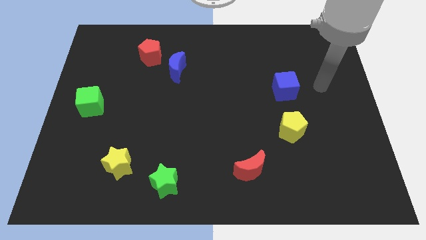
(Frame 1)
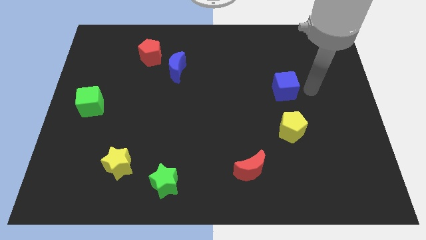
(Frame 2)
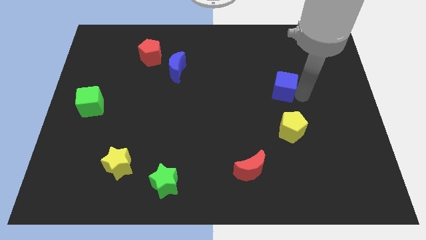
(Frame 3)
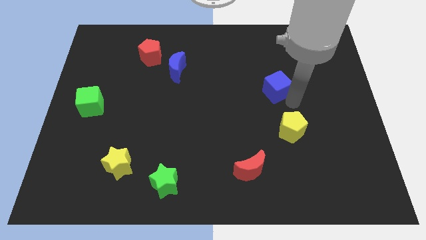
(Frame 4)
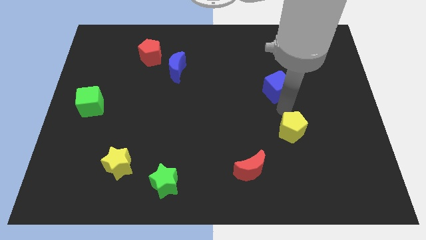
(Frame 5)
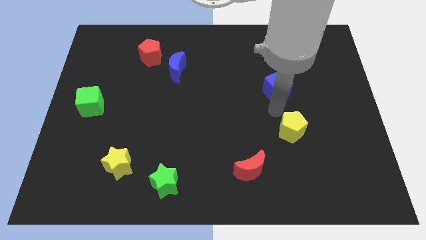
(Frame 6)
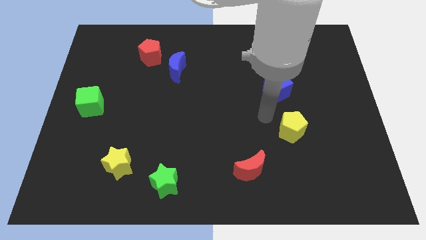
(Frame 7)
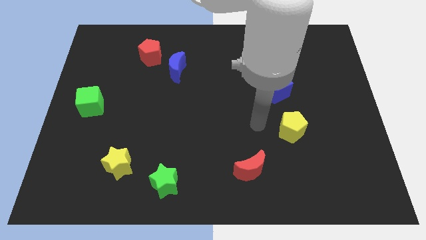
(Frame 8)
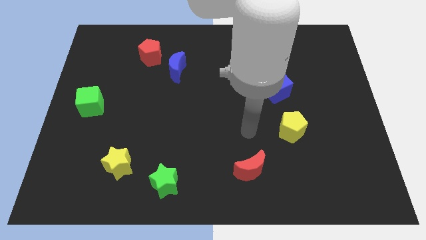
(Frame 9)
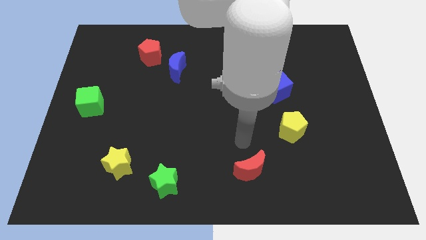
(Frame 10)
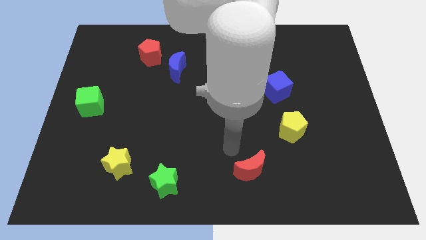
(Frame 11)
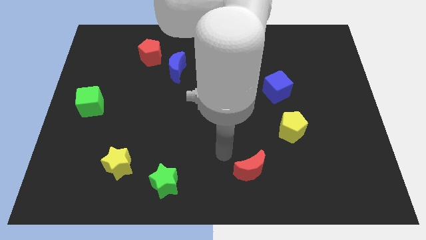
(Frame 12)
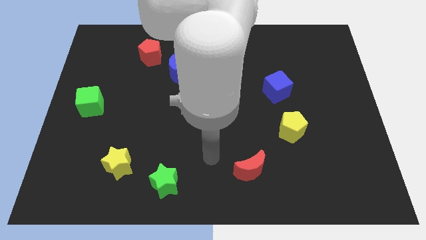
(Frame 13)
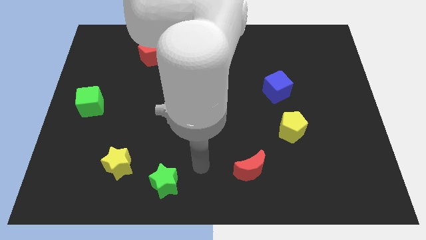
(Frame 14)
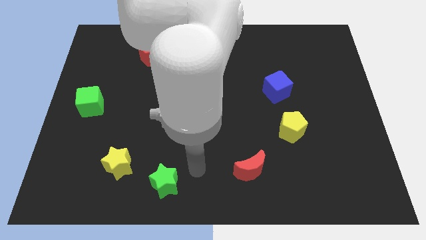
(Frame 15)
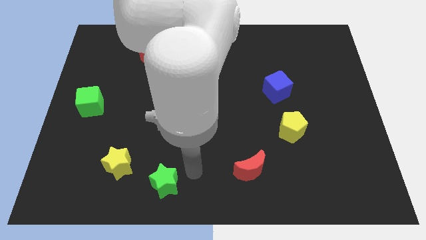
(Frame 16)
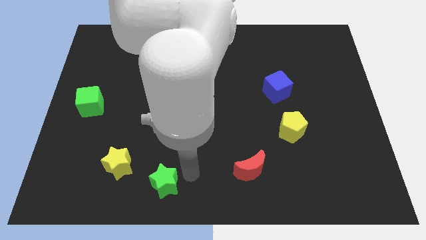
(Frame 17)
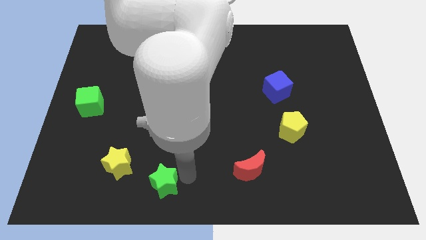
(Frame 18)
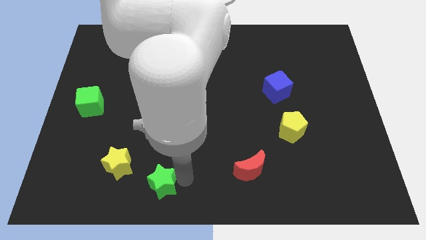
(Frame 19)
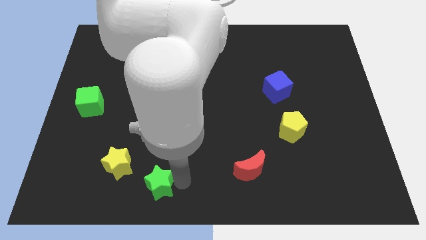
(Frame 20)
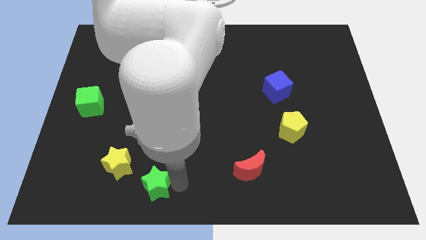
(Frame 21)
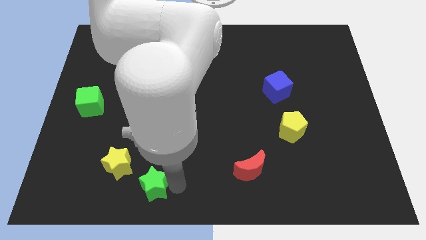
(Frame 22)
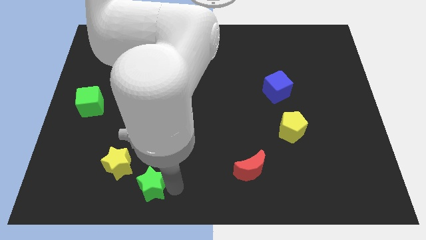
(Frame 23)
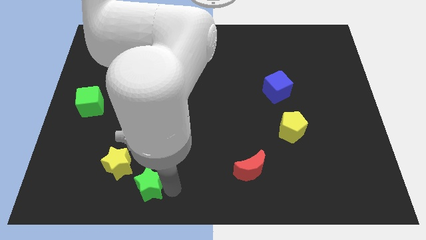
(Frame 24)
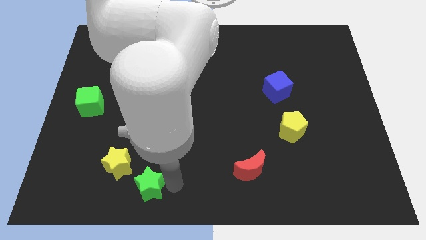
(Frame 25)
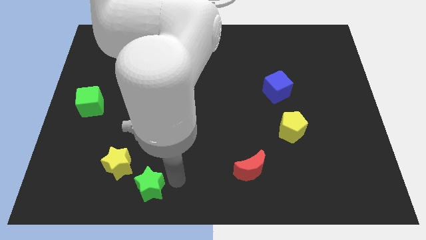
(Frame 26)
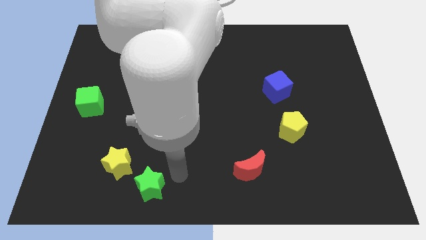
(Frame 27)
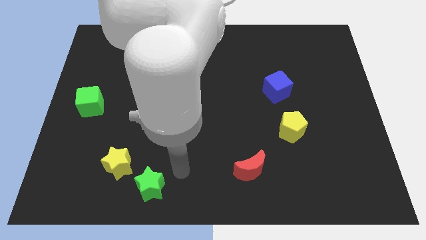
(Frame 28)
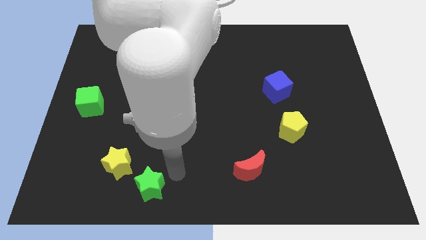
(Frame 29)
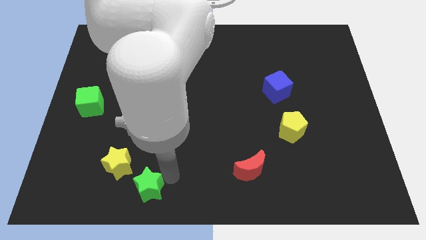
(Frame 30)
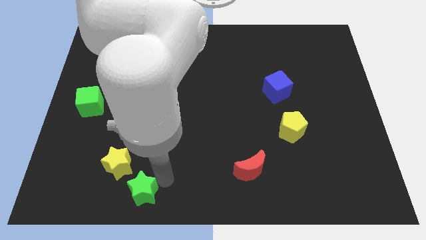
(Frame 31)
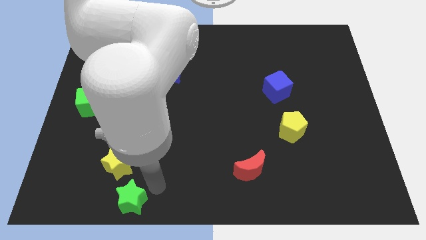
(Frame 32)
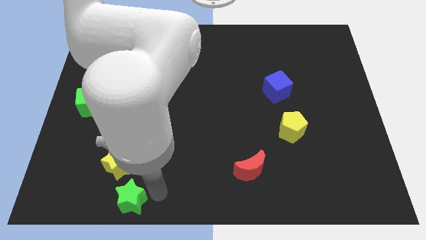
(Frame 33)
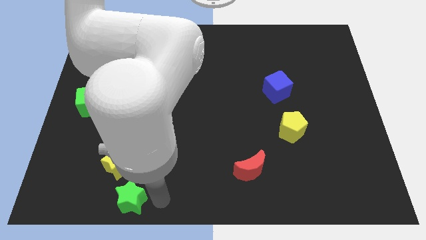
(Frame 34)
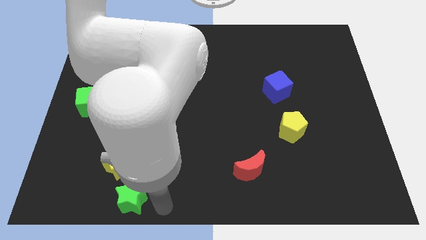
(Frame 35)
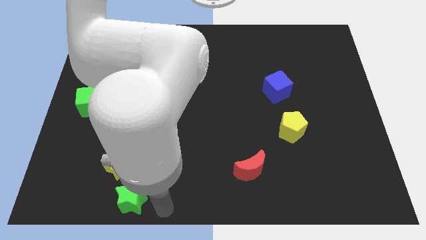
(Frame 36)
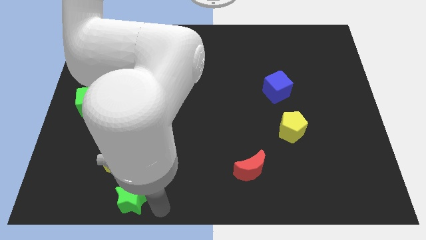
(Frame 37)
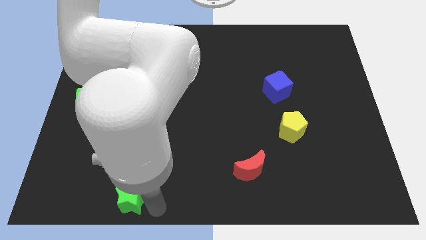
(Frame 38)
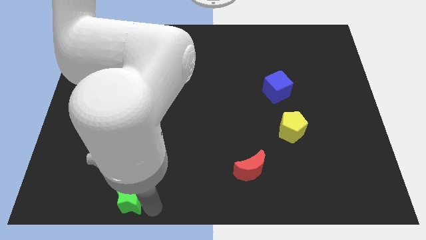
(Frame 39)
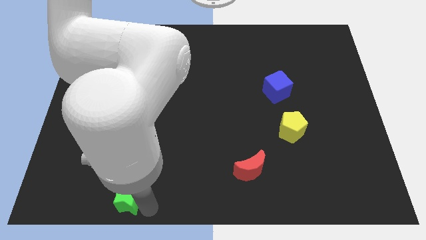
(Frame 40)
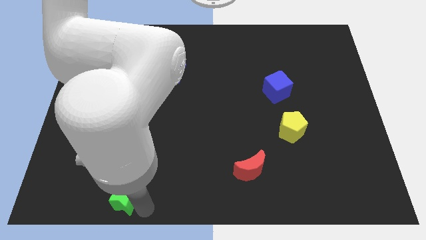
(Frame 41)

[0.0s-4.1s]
push the green star a little left

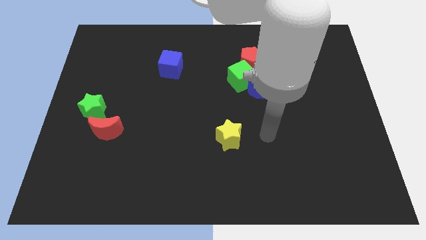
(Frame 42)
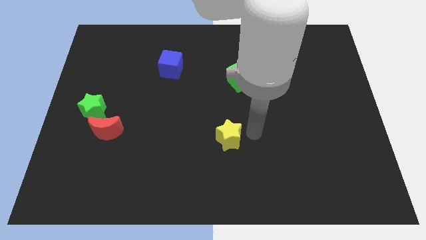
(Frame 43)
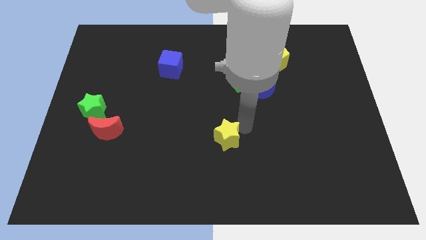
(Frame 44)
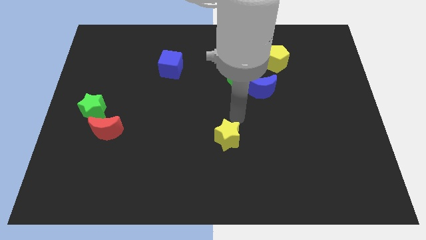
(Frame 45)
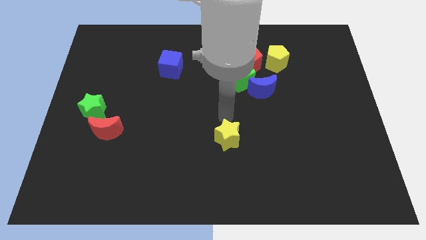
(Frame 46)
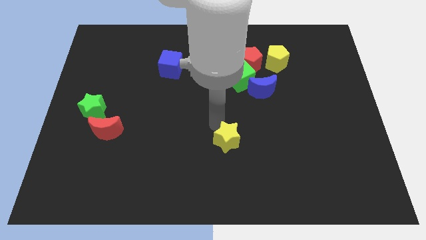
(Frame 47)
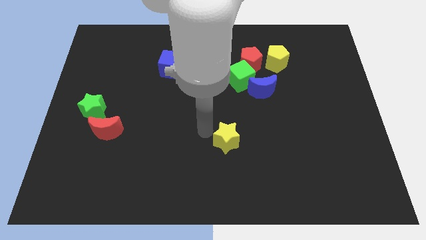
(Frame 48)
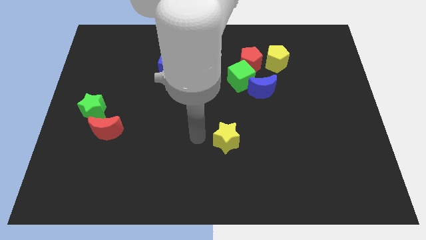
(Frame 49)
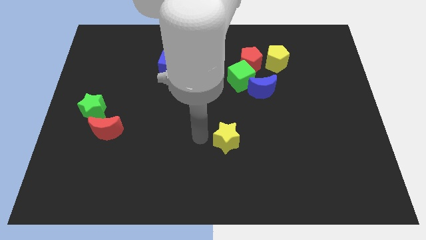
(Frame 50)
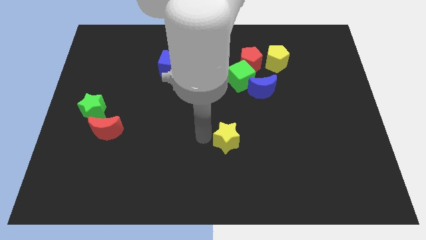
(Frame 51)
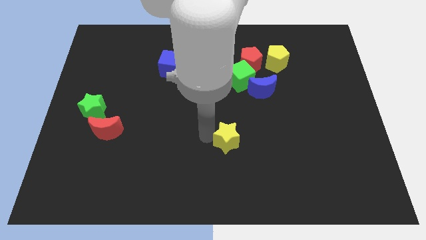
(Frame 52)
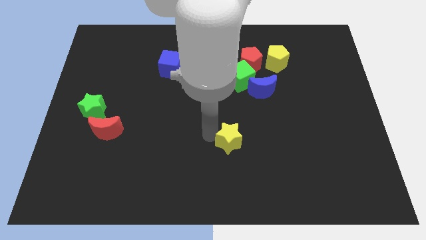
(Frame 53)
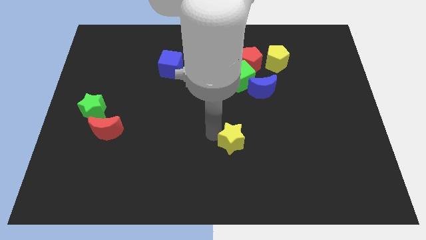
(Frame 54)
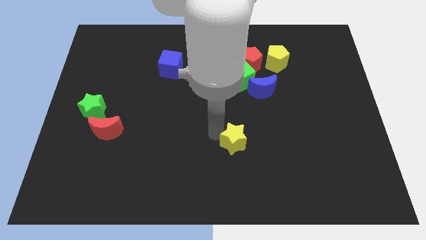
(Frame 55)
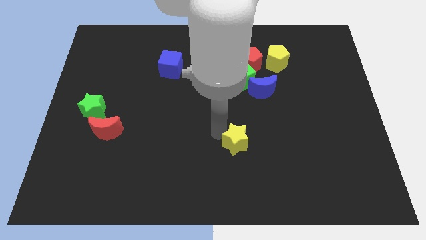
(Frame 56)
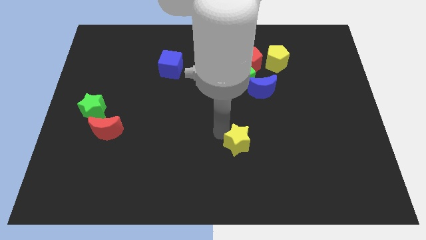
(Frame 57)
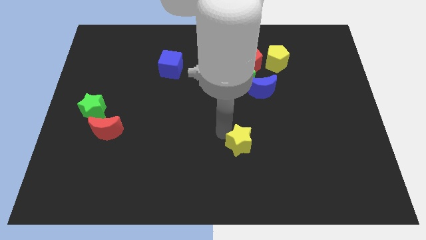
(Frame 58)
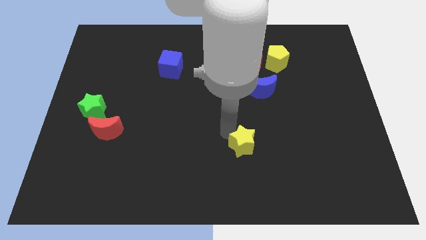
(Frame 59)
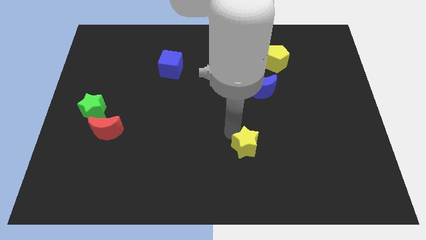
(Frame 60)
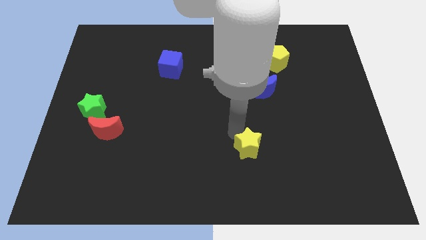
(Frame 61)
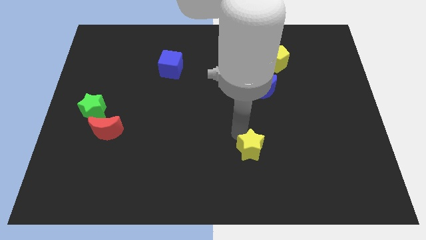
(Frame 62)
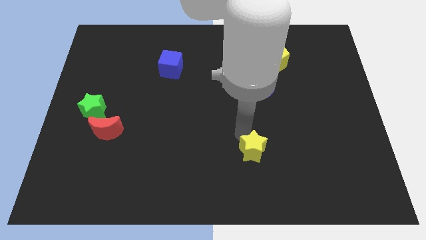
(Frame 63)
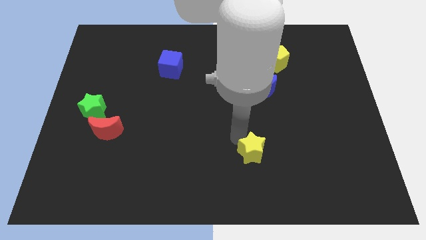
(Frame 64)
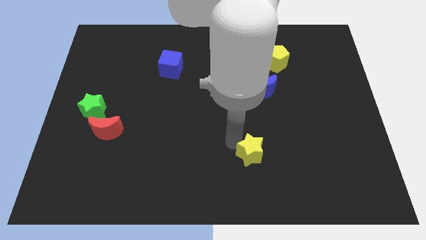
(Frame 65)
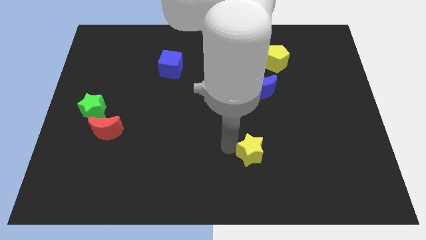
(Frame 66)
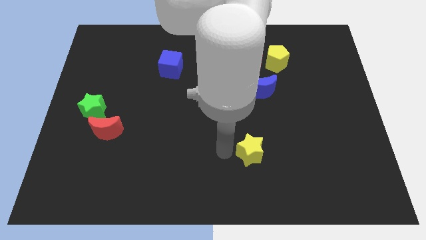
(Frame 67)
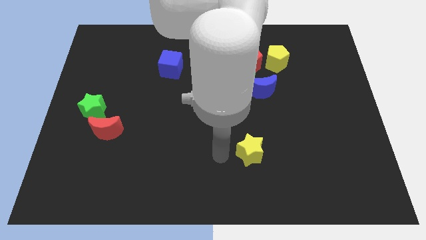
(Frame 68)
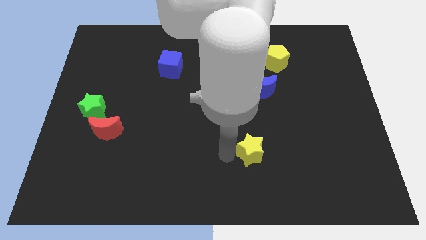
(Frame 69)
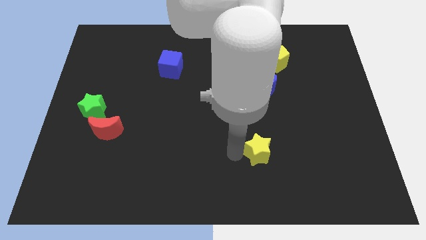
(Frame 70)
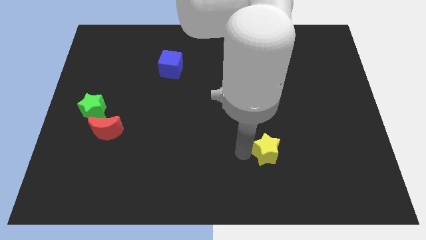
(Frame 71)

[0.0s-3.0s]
slide the yellow star a bit right

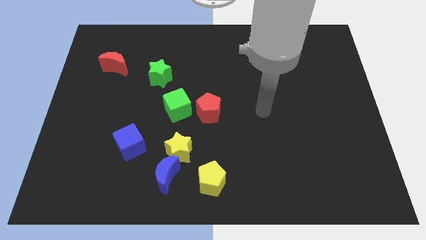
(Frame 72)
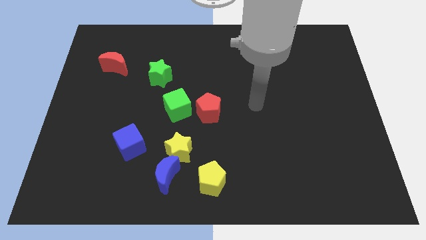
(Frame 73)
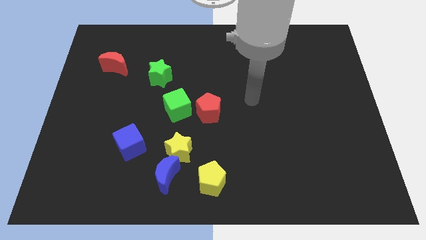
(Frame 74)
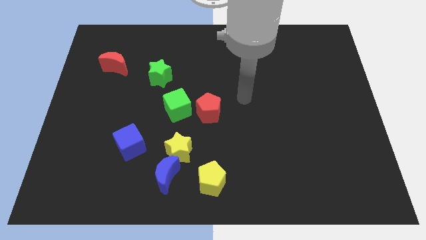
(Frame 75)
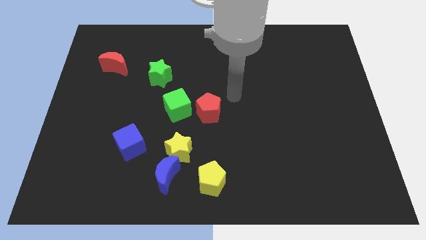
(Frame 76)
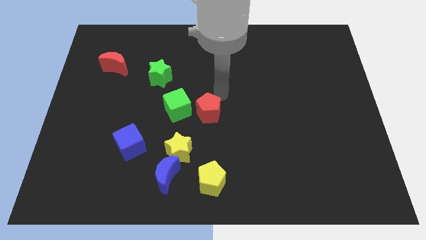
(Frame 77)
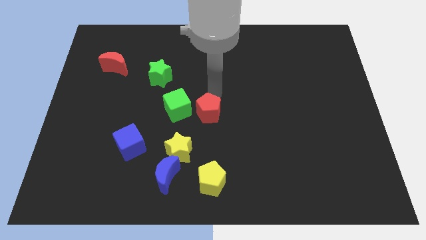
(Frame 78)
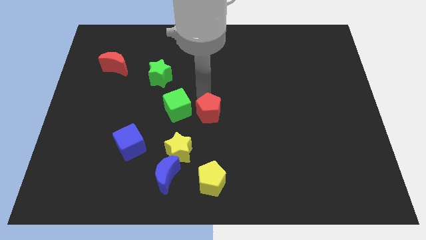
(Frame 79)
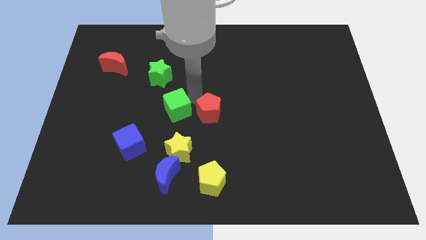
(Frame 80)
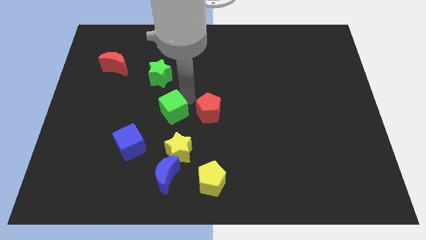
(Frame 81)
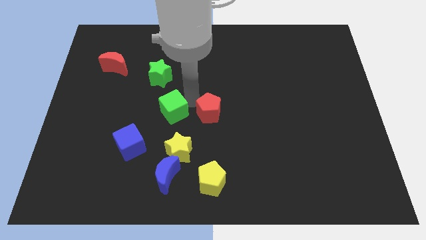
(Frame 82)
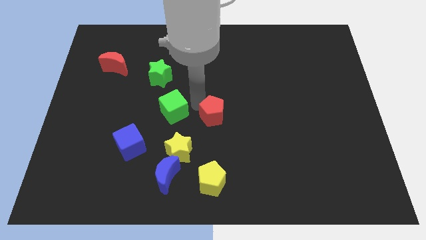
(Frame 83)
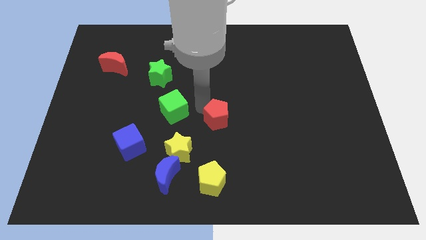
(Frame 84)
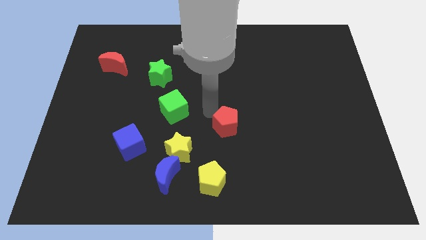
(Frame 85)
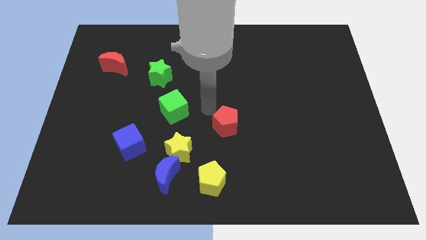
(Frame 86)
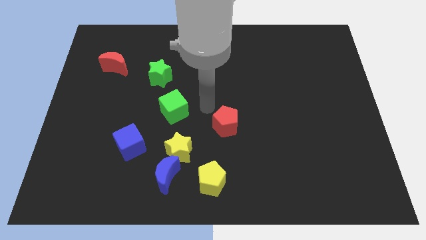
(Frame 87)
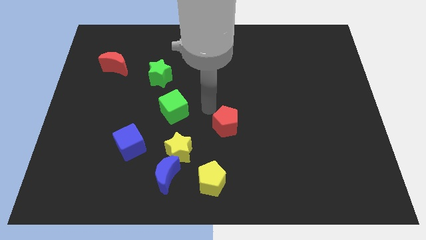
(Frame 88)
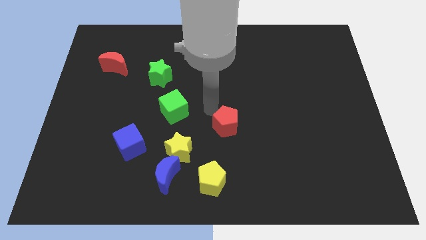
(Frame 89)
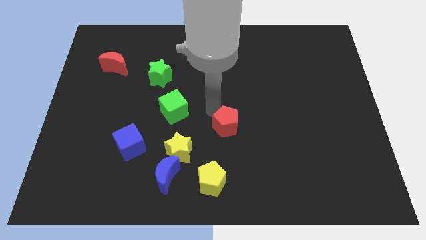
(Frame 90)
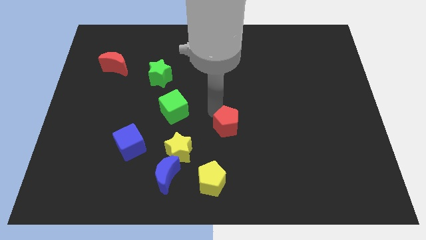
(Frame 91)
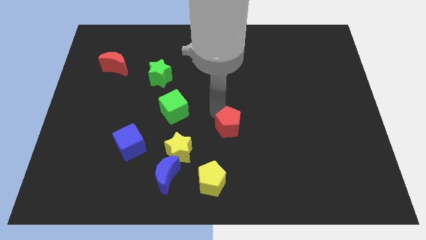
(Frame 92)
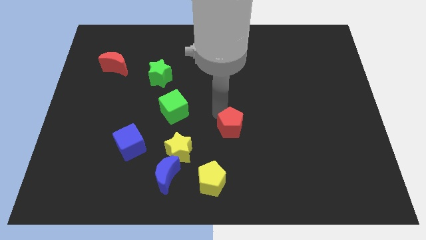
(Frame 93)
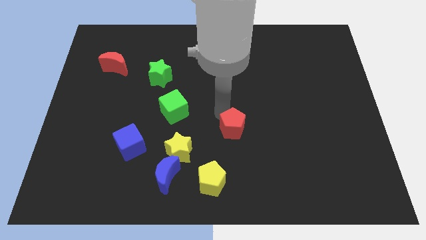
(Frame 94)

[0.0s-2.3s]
slide the red pentagon a little bit diagonally downwards and to the right
